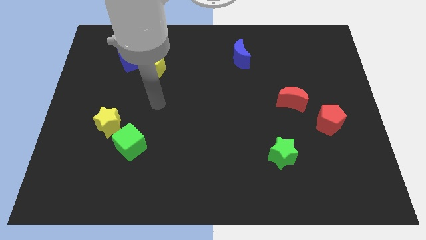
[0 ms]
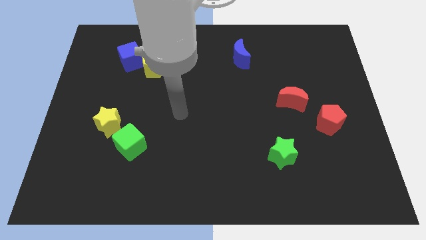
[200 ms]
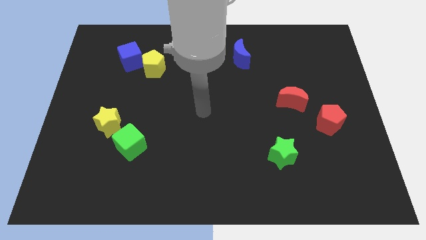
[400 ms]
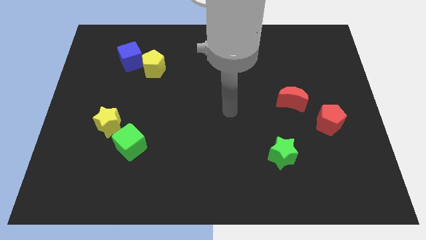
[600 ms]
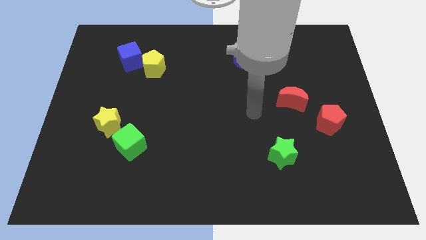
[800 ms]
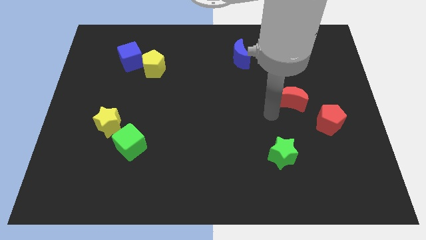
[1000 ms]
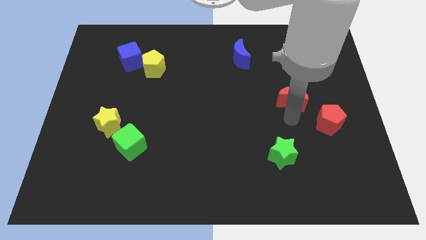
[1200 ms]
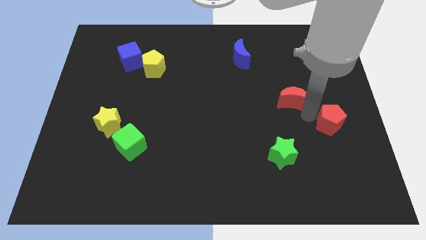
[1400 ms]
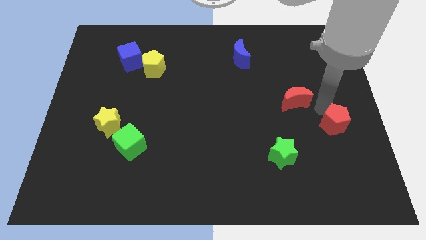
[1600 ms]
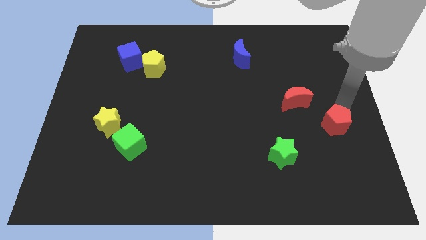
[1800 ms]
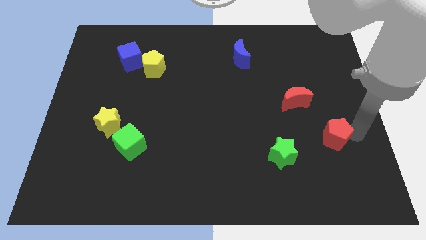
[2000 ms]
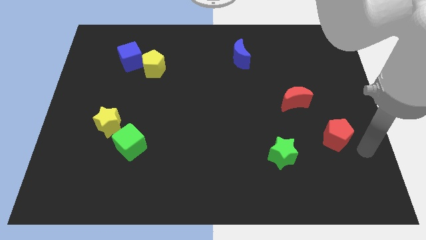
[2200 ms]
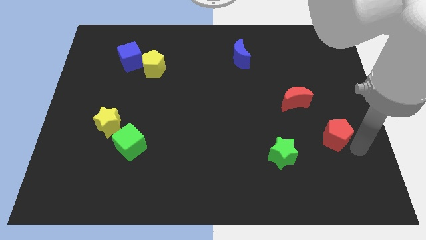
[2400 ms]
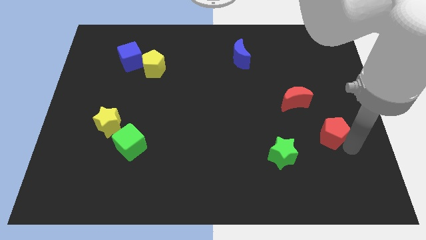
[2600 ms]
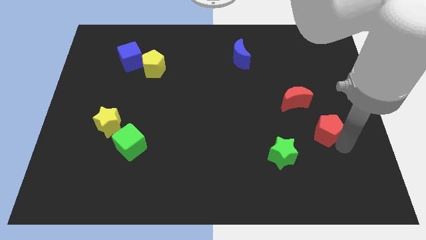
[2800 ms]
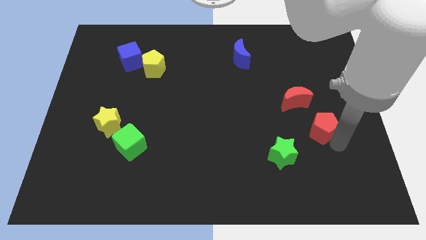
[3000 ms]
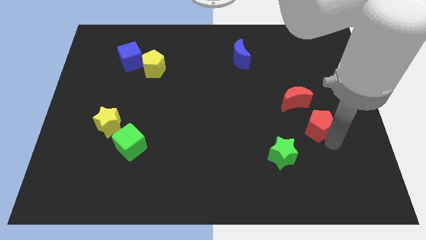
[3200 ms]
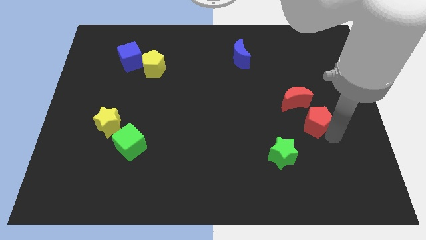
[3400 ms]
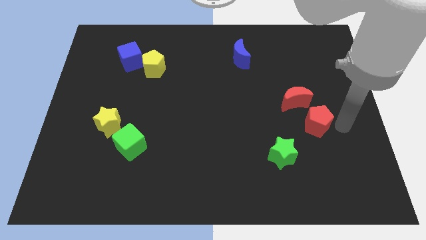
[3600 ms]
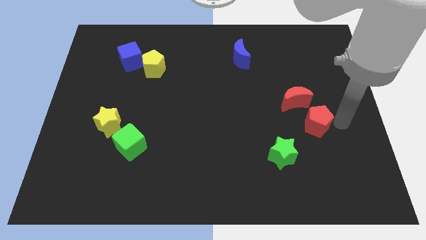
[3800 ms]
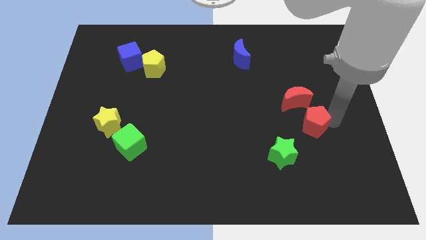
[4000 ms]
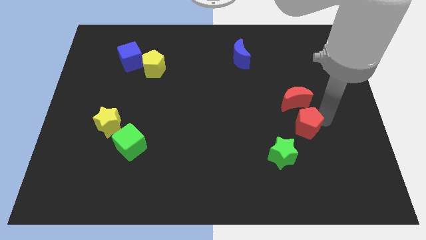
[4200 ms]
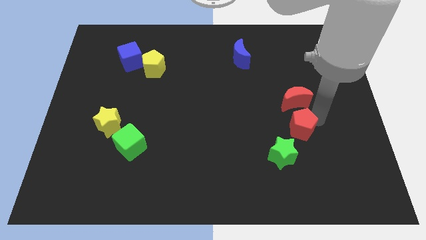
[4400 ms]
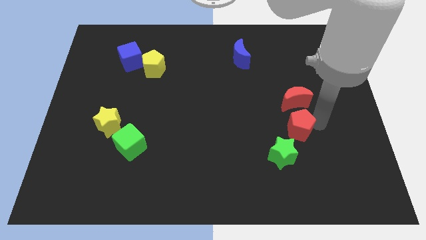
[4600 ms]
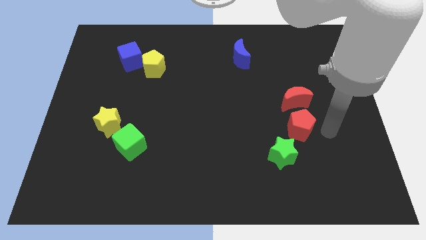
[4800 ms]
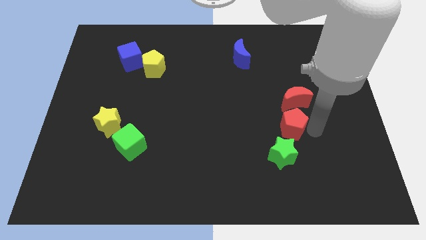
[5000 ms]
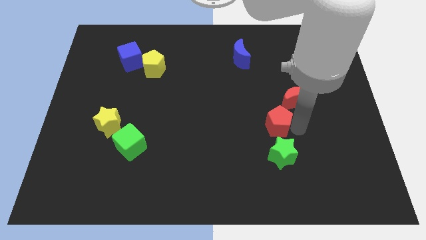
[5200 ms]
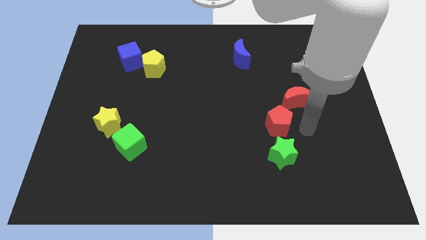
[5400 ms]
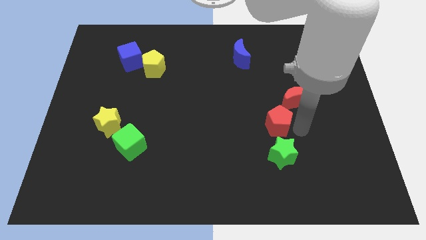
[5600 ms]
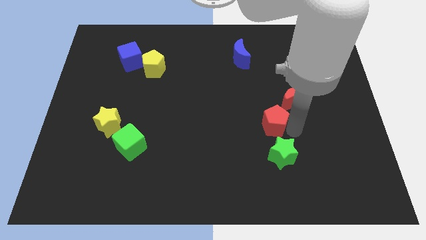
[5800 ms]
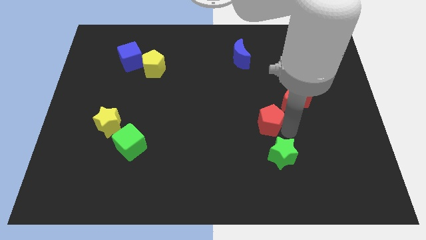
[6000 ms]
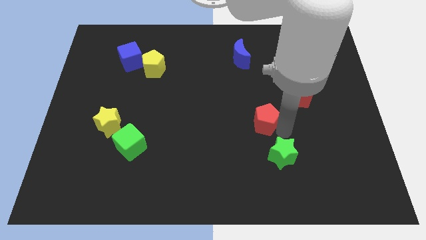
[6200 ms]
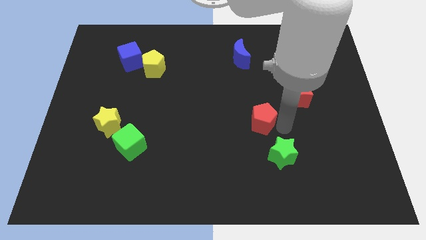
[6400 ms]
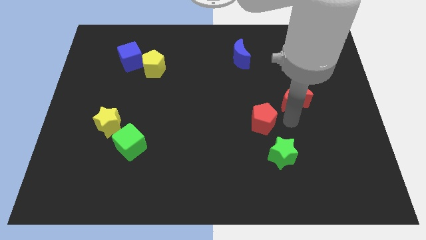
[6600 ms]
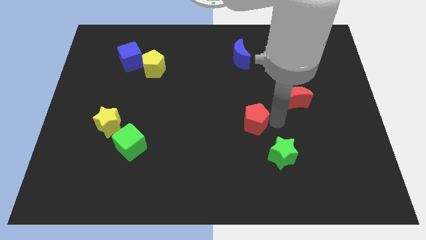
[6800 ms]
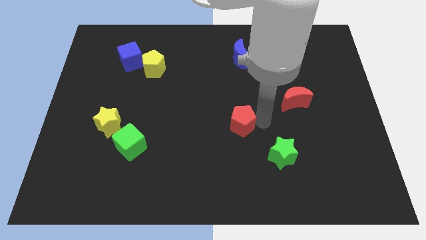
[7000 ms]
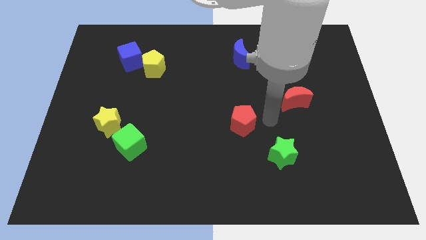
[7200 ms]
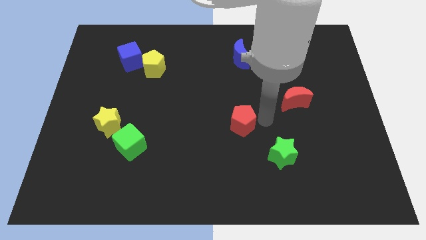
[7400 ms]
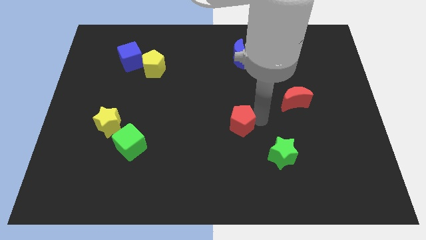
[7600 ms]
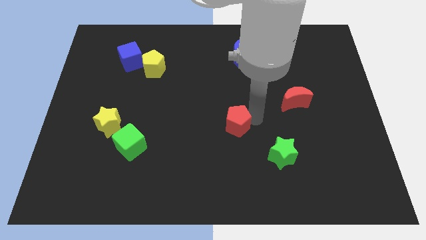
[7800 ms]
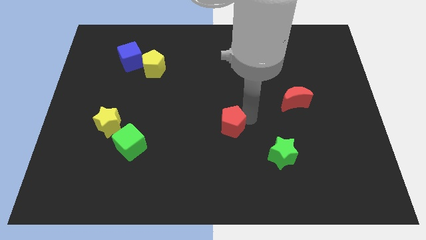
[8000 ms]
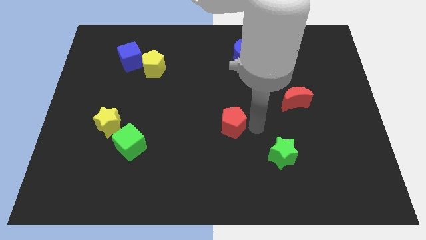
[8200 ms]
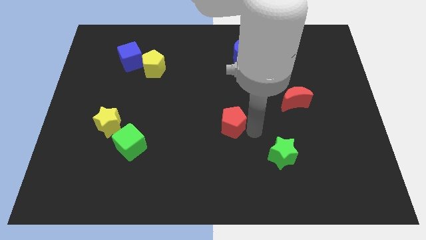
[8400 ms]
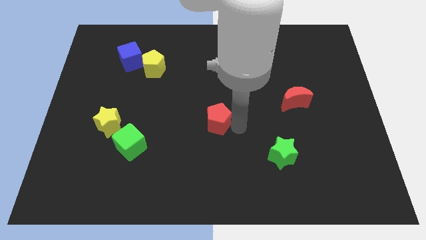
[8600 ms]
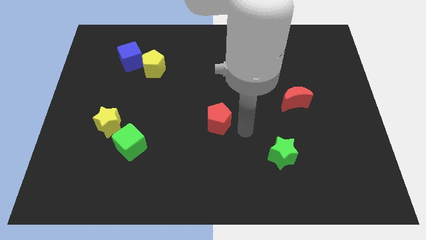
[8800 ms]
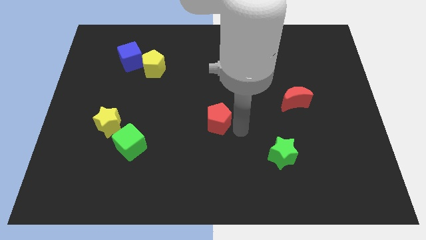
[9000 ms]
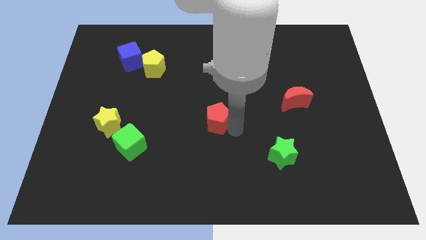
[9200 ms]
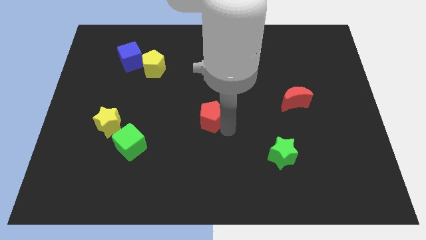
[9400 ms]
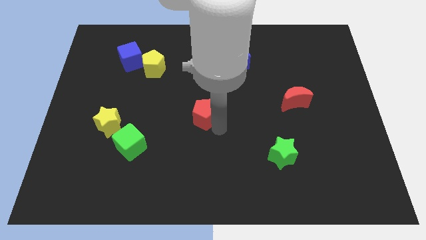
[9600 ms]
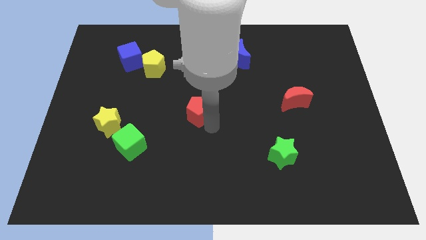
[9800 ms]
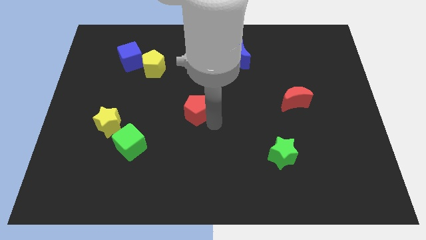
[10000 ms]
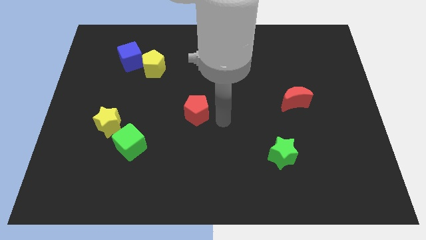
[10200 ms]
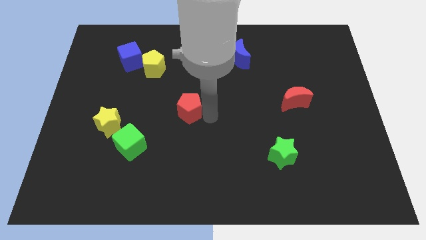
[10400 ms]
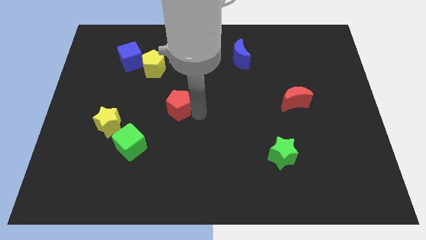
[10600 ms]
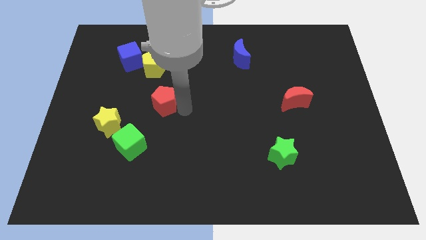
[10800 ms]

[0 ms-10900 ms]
slide the red pentagon to the bottom side of the yellow pentagon

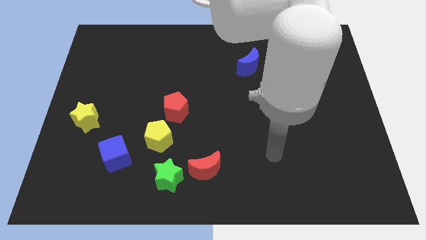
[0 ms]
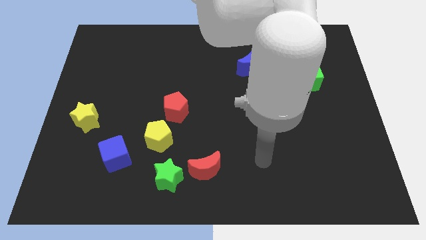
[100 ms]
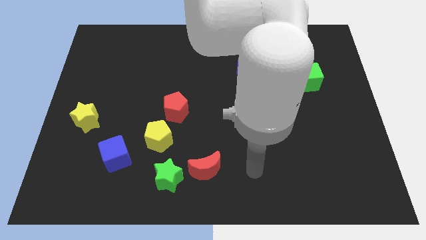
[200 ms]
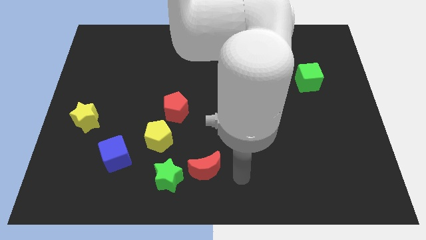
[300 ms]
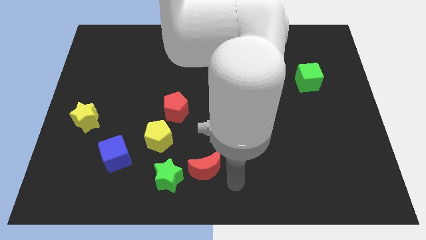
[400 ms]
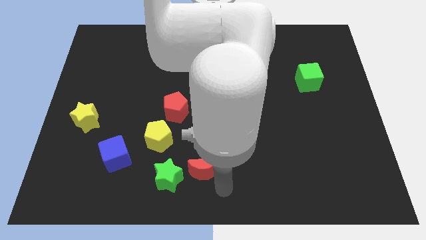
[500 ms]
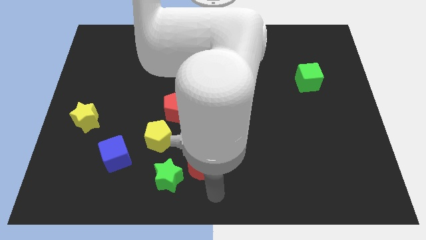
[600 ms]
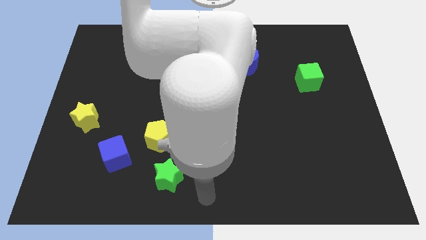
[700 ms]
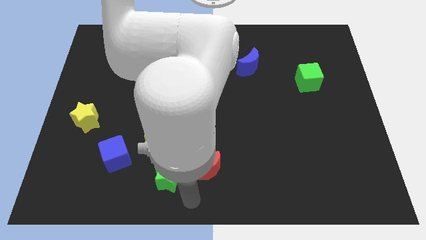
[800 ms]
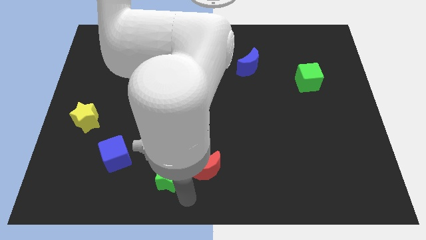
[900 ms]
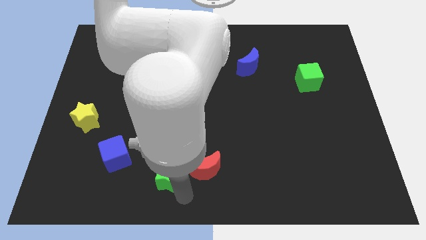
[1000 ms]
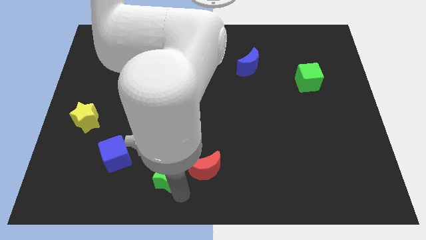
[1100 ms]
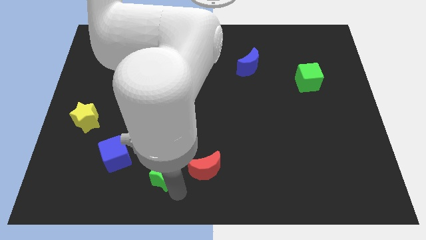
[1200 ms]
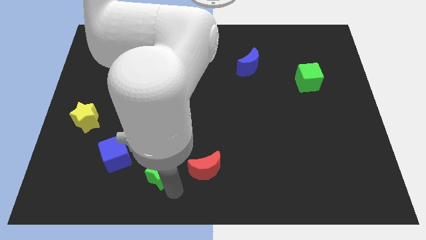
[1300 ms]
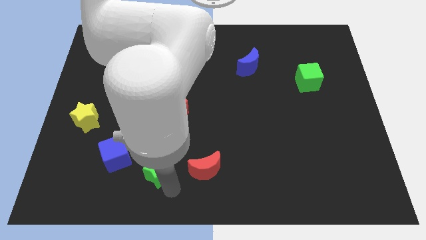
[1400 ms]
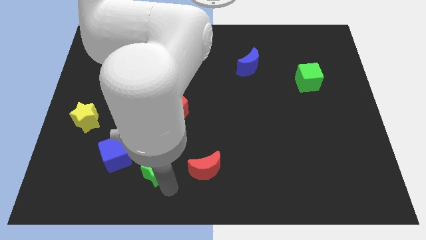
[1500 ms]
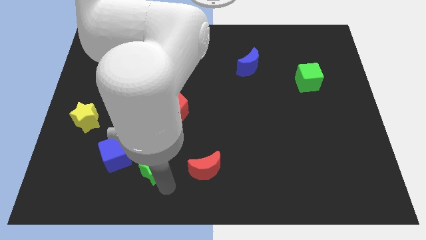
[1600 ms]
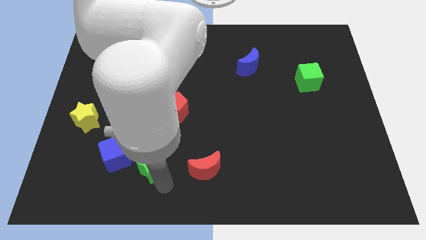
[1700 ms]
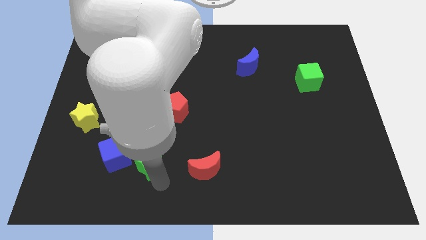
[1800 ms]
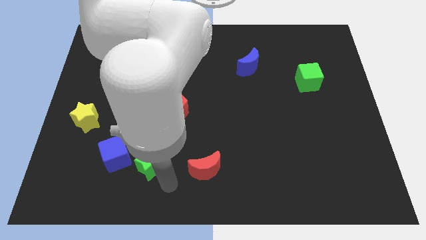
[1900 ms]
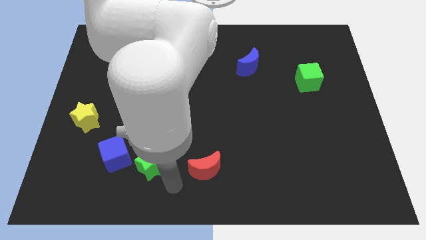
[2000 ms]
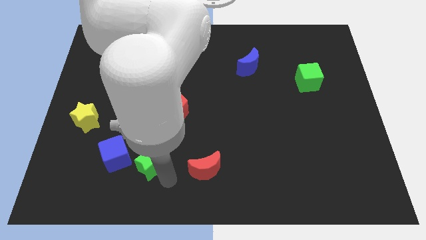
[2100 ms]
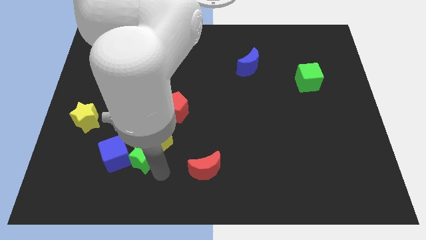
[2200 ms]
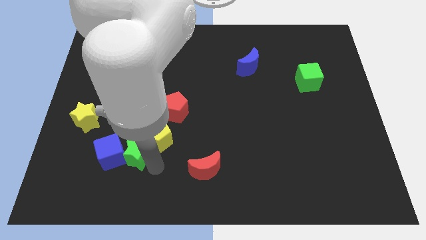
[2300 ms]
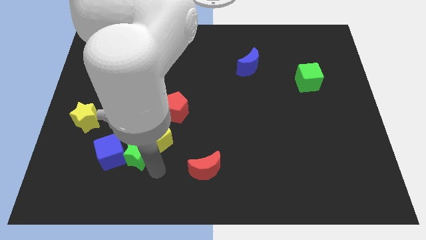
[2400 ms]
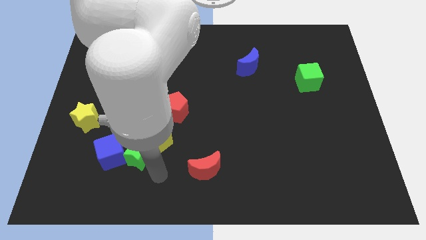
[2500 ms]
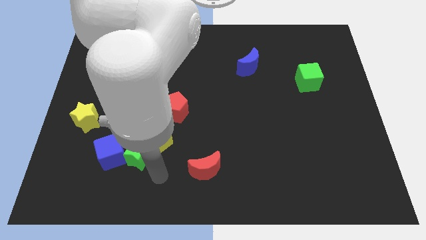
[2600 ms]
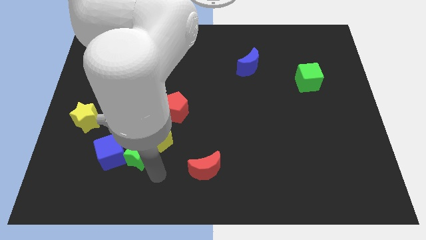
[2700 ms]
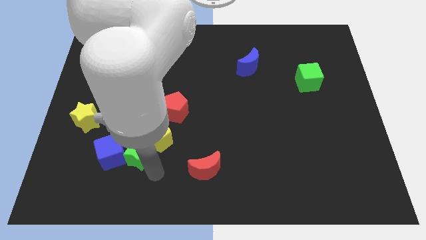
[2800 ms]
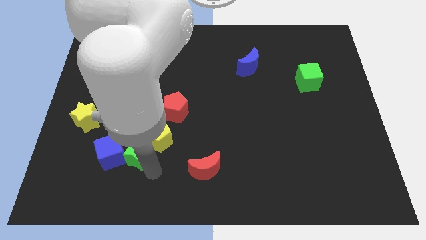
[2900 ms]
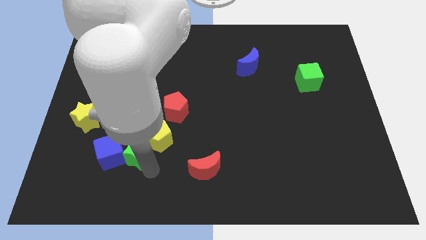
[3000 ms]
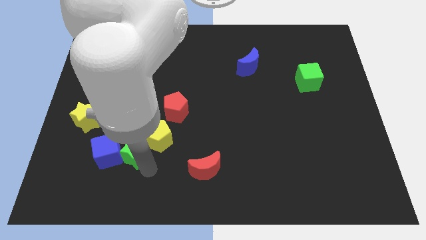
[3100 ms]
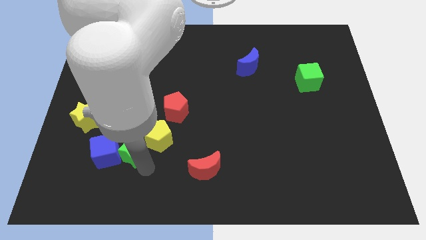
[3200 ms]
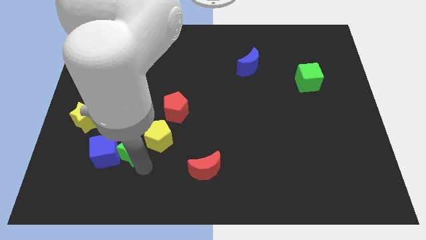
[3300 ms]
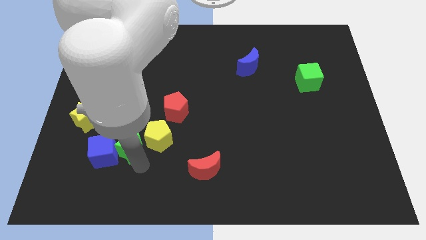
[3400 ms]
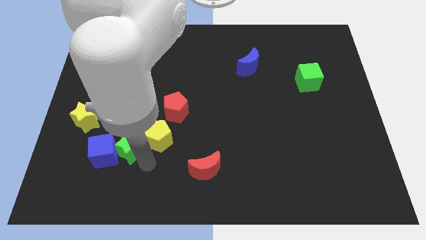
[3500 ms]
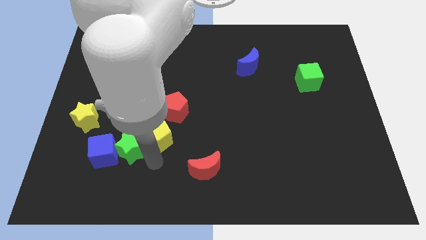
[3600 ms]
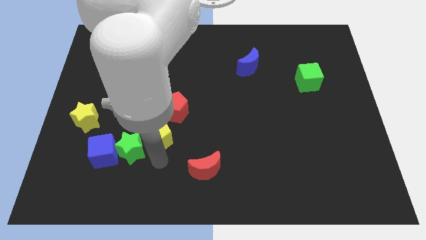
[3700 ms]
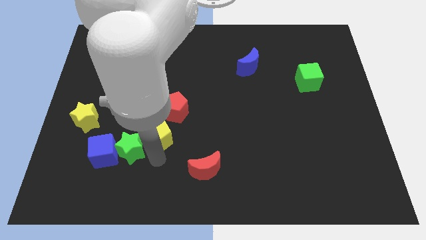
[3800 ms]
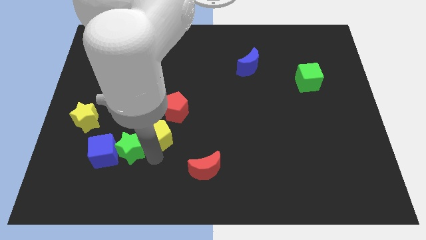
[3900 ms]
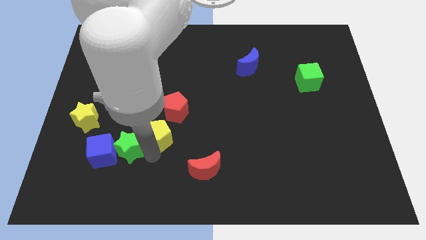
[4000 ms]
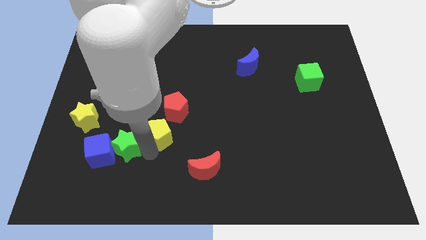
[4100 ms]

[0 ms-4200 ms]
slide the green star to the bottom right of the yellow star
